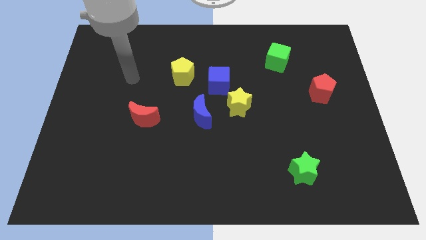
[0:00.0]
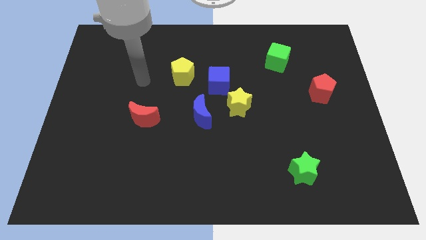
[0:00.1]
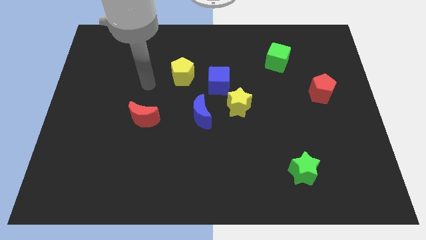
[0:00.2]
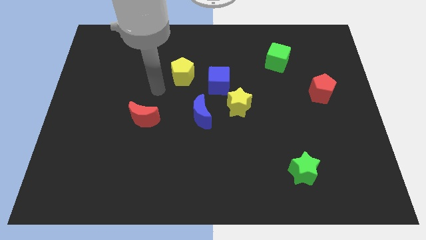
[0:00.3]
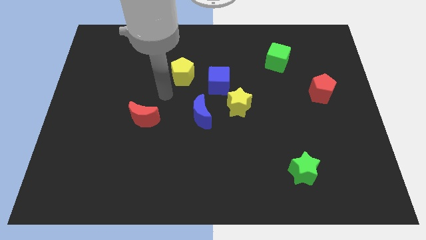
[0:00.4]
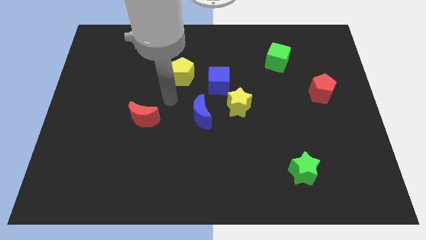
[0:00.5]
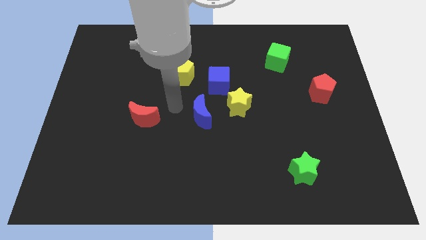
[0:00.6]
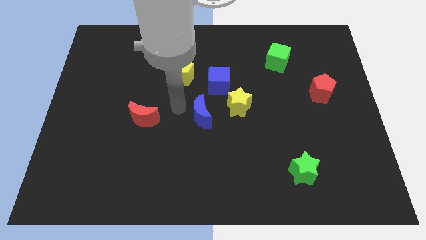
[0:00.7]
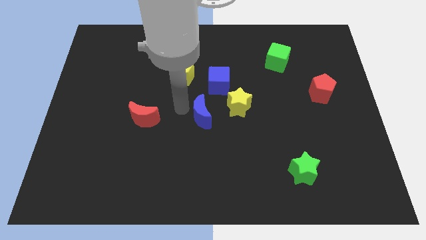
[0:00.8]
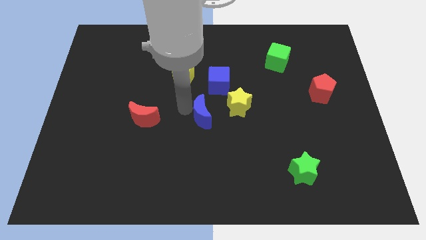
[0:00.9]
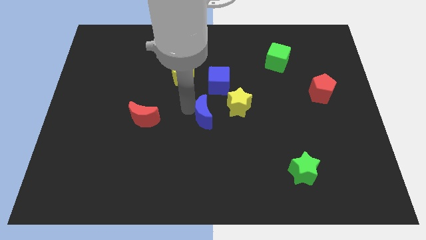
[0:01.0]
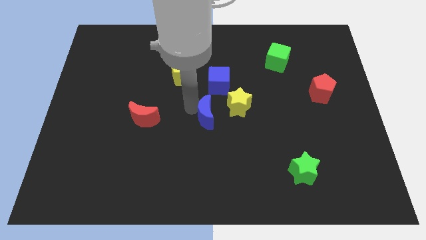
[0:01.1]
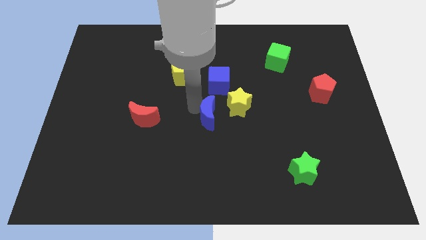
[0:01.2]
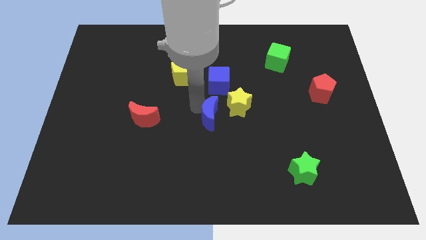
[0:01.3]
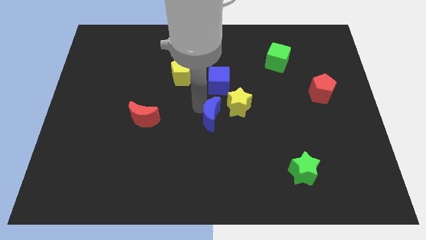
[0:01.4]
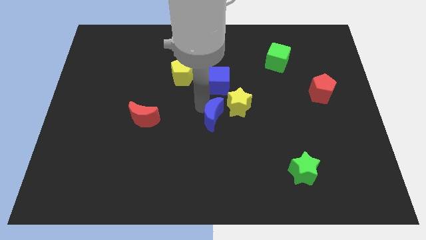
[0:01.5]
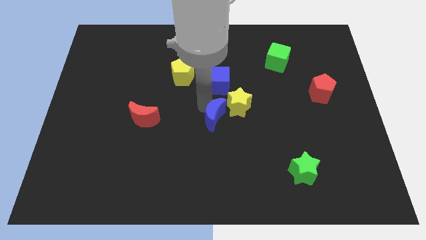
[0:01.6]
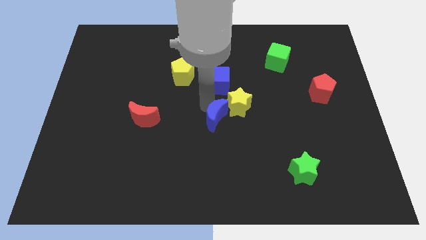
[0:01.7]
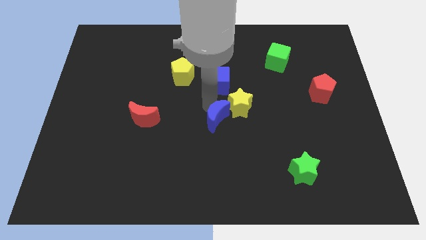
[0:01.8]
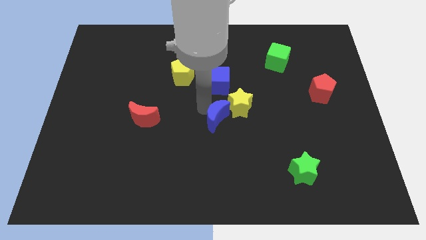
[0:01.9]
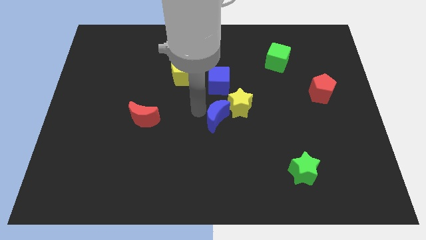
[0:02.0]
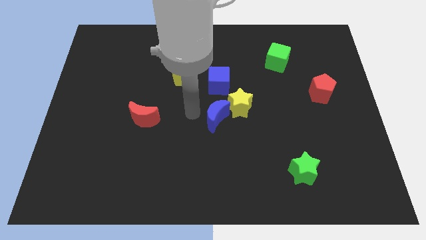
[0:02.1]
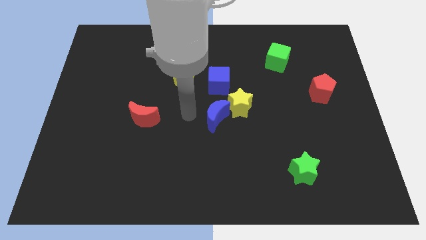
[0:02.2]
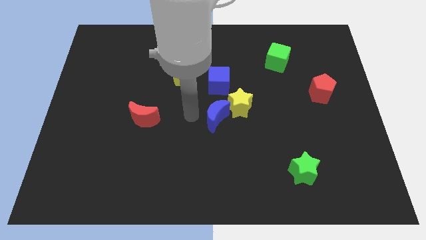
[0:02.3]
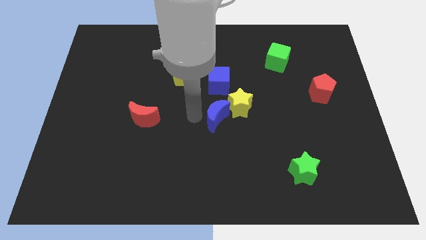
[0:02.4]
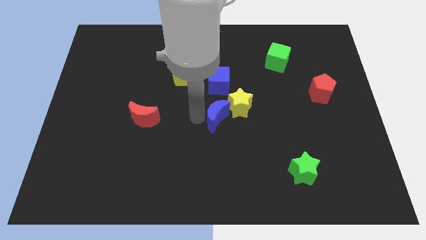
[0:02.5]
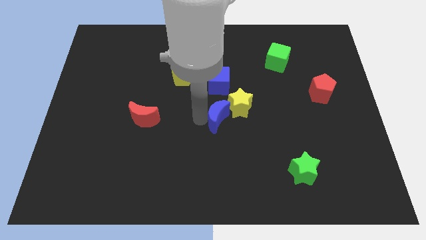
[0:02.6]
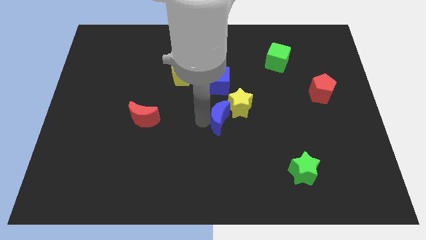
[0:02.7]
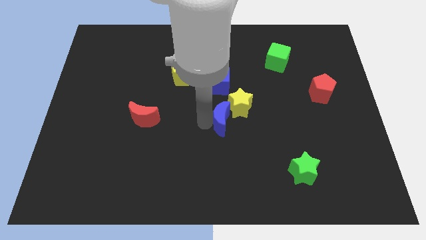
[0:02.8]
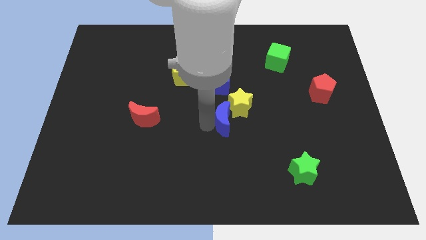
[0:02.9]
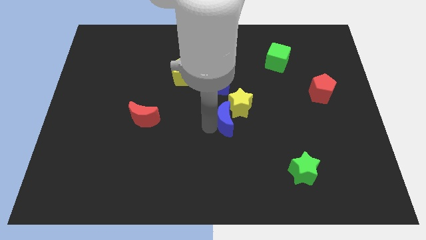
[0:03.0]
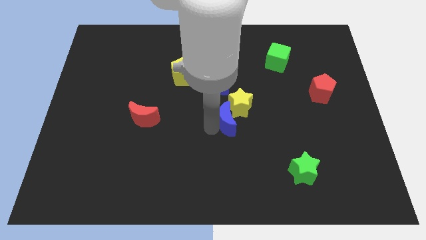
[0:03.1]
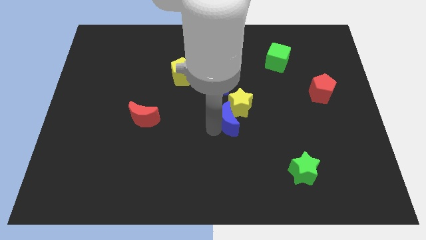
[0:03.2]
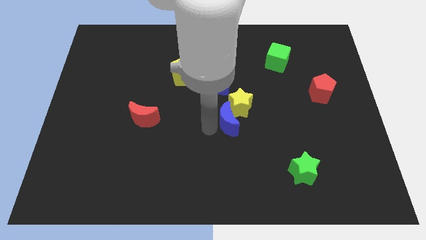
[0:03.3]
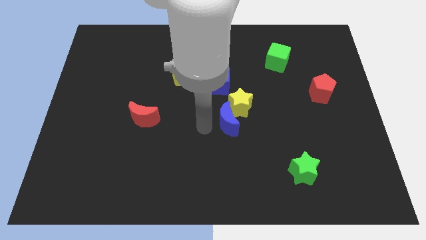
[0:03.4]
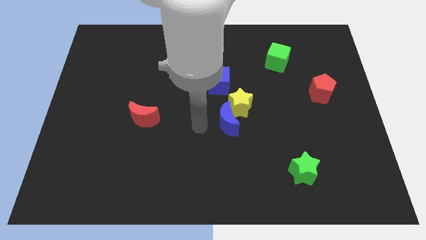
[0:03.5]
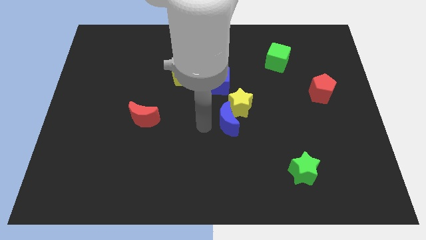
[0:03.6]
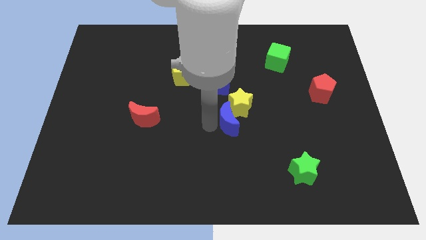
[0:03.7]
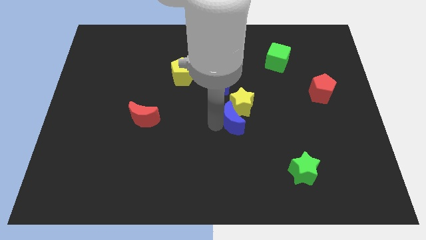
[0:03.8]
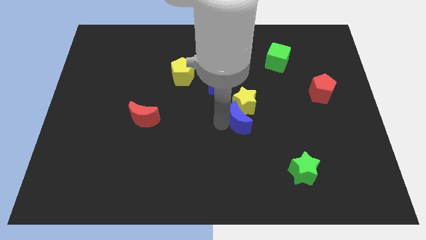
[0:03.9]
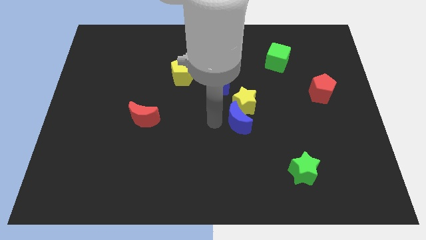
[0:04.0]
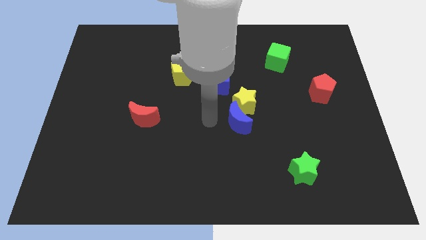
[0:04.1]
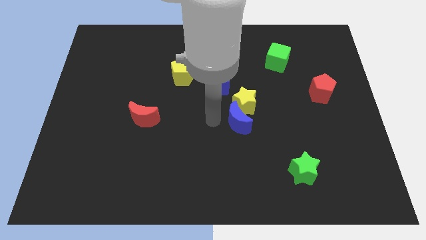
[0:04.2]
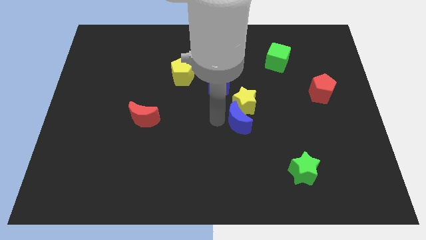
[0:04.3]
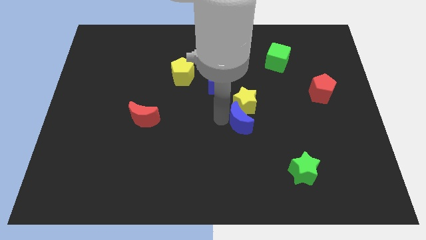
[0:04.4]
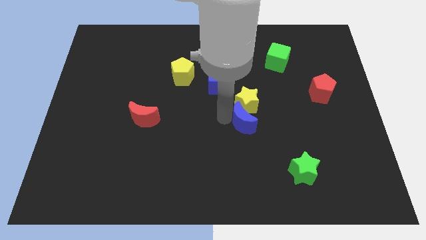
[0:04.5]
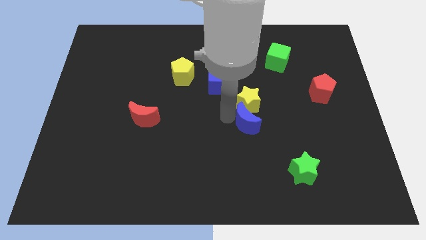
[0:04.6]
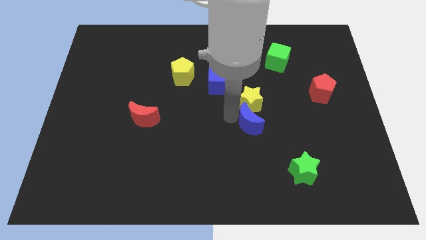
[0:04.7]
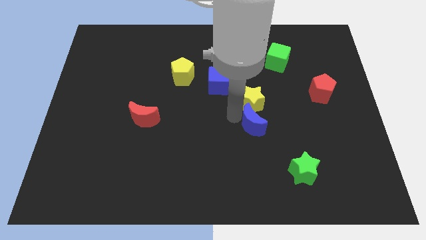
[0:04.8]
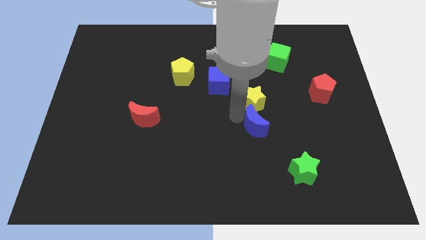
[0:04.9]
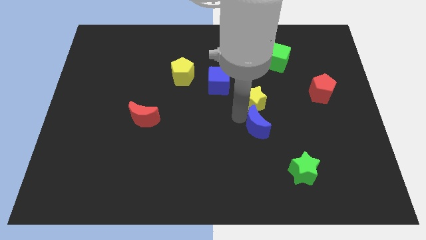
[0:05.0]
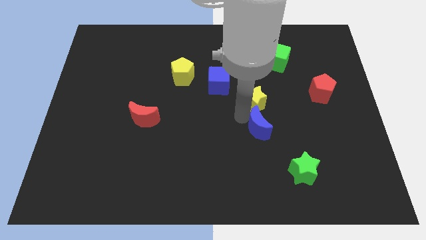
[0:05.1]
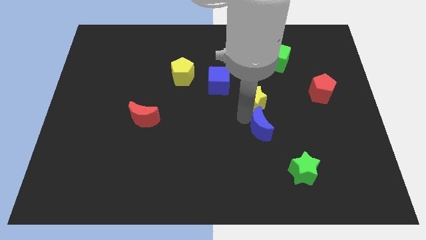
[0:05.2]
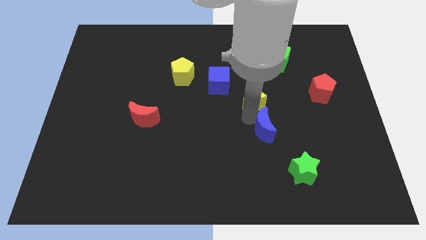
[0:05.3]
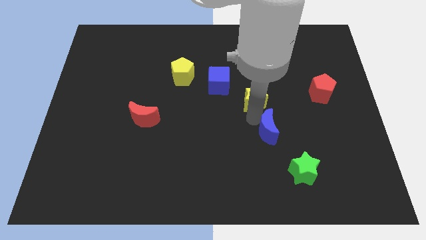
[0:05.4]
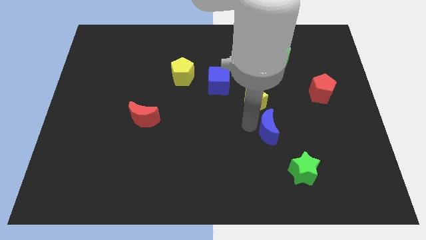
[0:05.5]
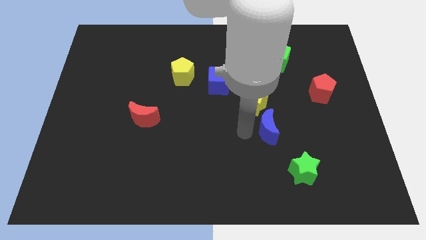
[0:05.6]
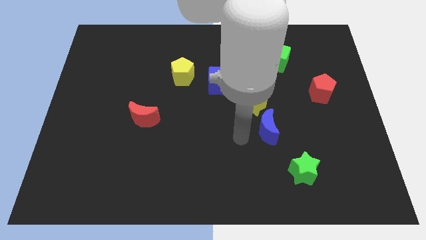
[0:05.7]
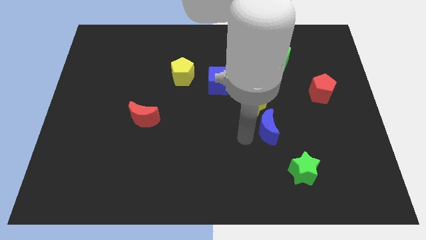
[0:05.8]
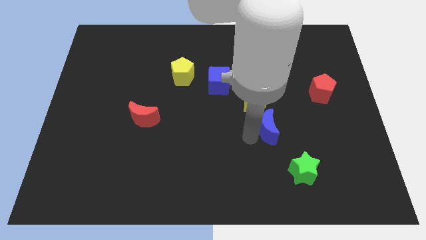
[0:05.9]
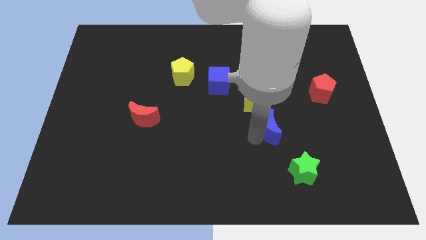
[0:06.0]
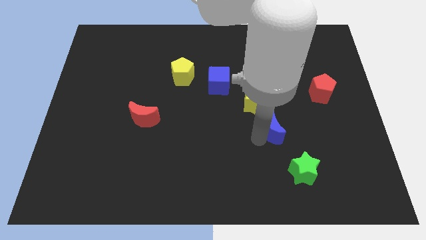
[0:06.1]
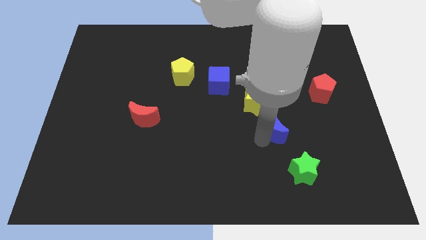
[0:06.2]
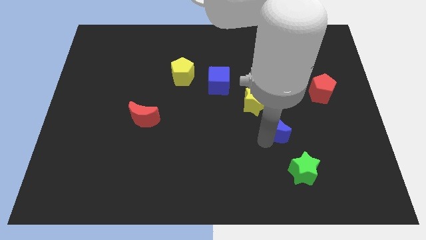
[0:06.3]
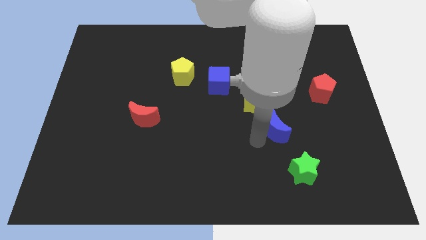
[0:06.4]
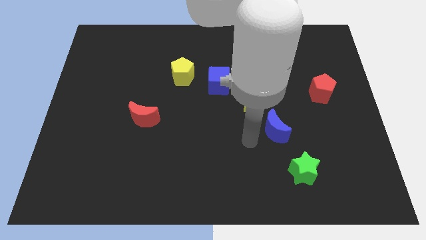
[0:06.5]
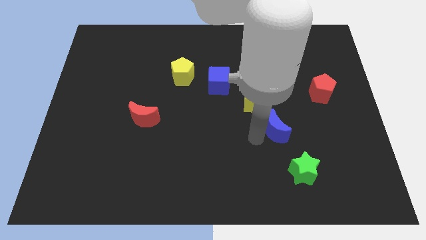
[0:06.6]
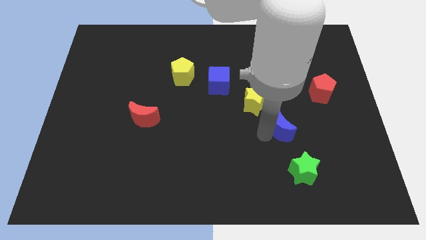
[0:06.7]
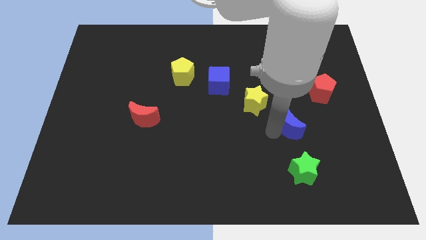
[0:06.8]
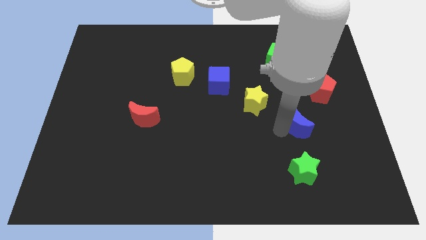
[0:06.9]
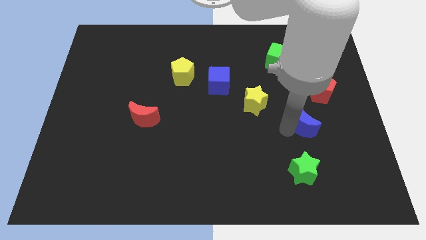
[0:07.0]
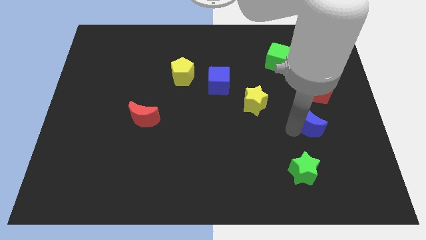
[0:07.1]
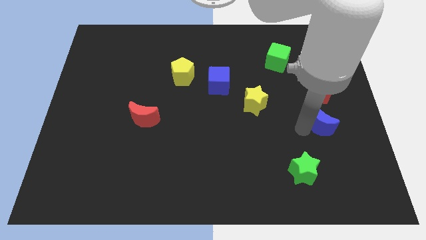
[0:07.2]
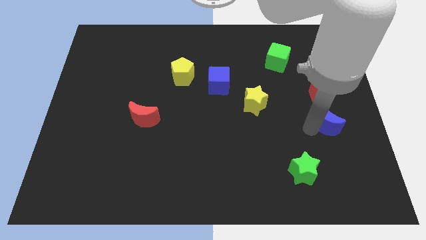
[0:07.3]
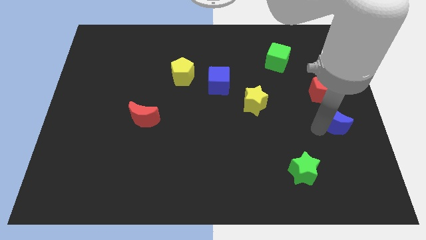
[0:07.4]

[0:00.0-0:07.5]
move the blue moon to the right side of the board

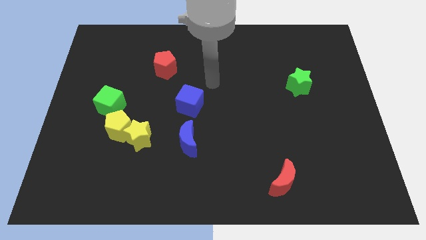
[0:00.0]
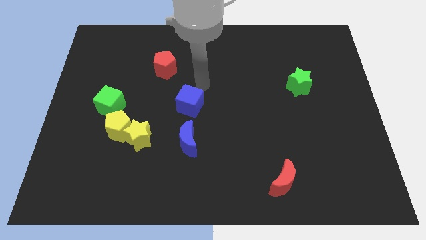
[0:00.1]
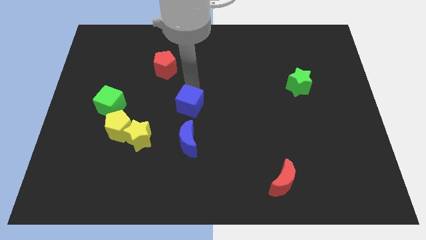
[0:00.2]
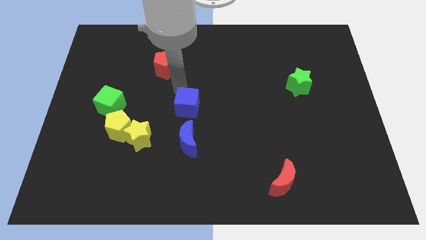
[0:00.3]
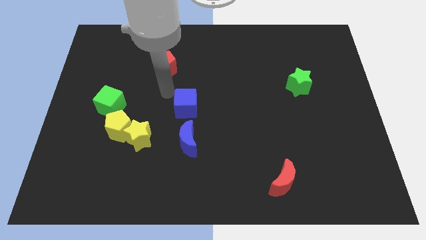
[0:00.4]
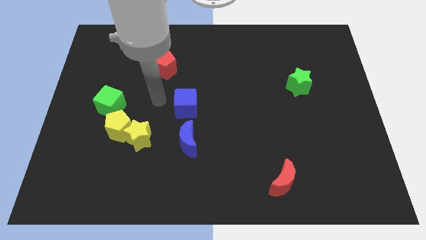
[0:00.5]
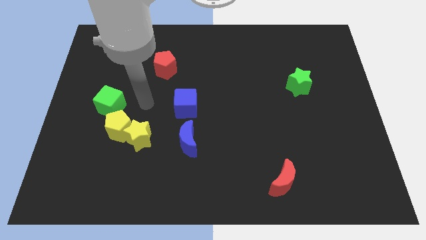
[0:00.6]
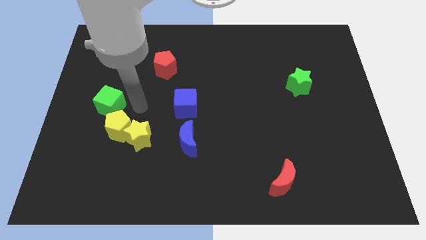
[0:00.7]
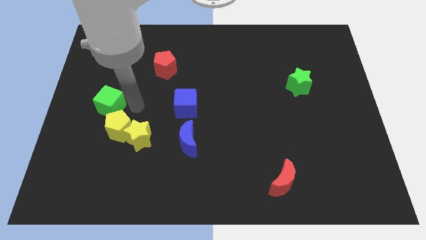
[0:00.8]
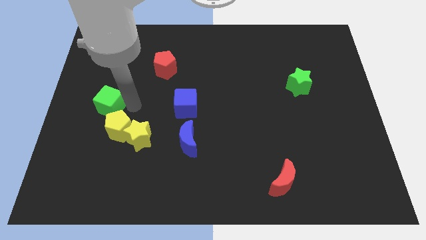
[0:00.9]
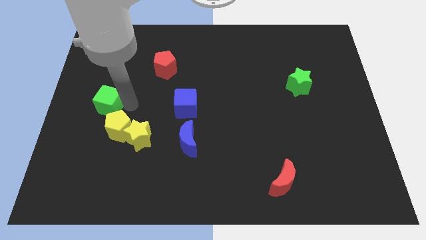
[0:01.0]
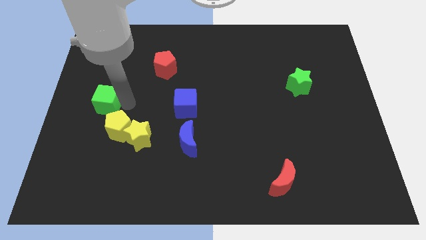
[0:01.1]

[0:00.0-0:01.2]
put the green cube to the left side of the board
